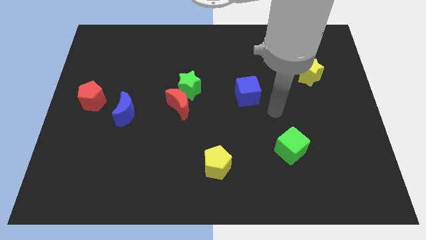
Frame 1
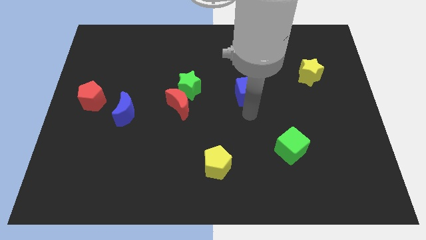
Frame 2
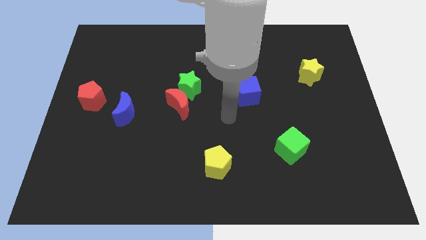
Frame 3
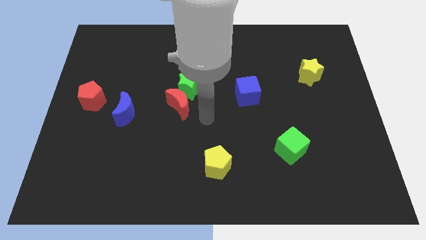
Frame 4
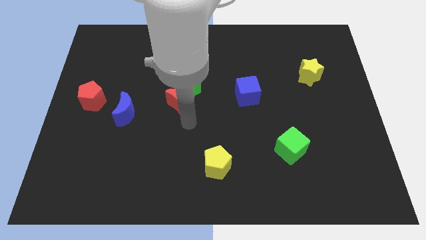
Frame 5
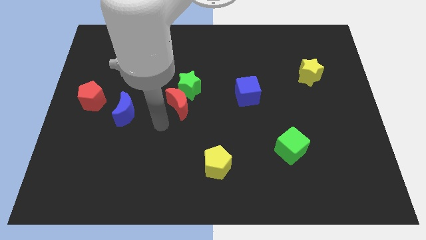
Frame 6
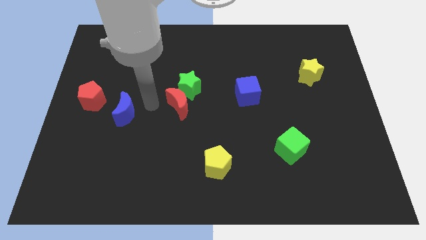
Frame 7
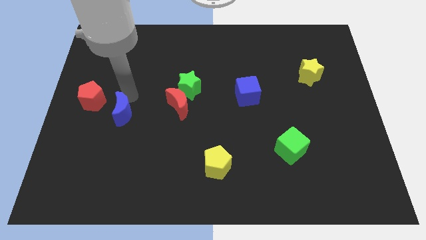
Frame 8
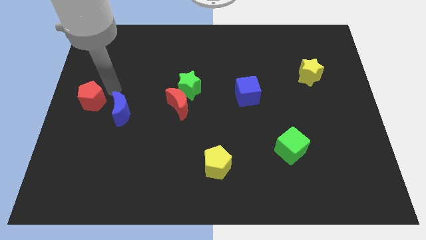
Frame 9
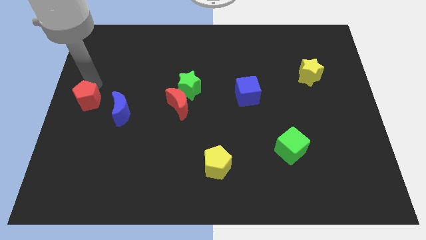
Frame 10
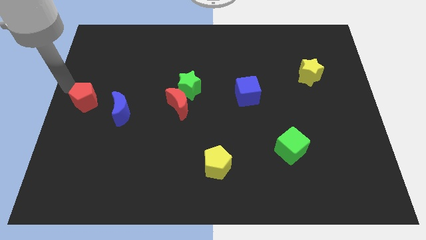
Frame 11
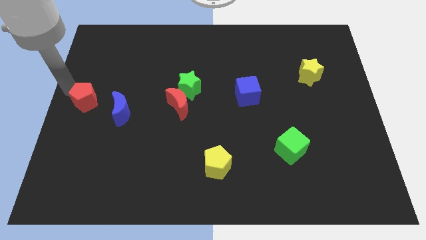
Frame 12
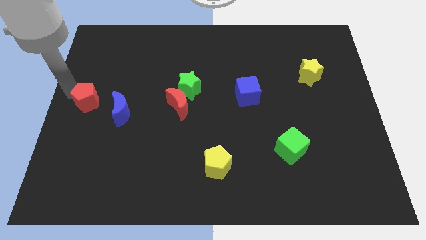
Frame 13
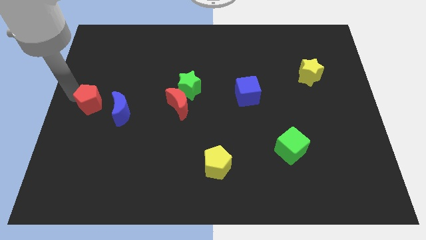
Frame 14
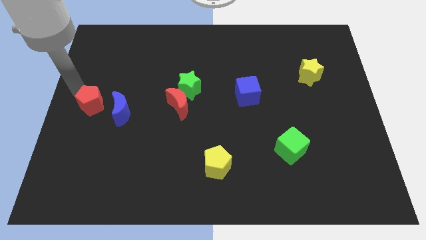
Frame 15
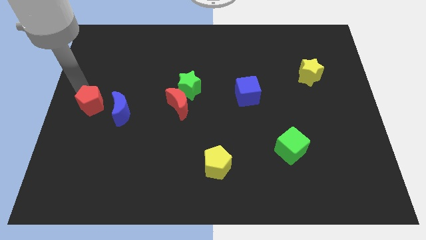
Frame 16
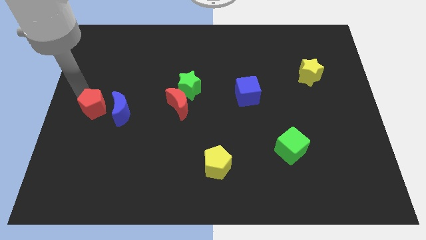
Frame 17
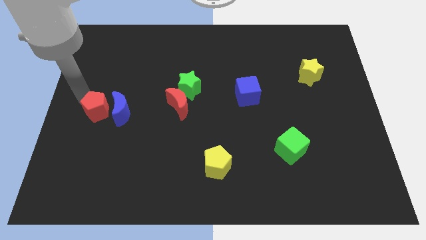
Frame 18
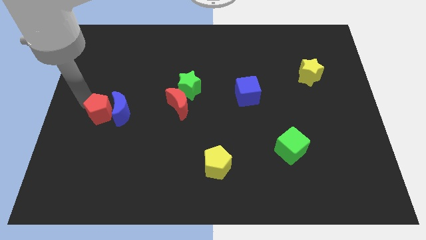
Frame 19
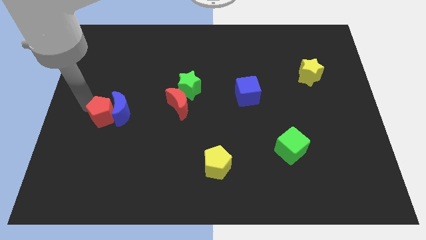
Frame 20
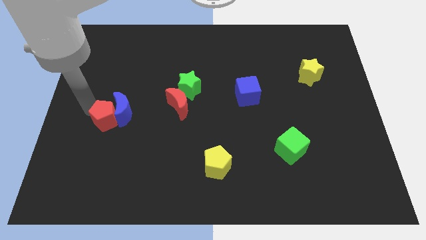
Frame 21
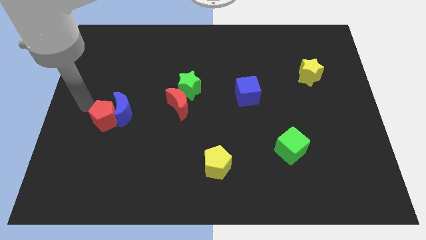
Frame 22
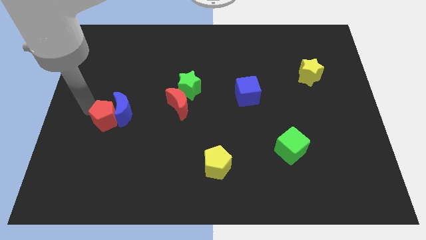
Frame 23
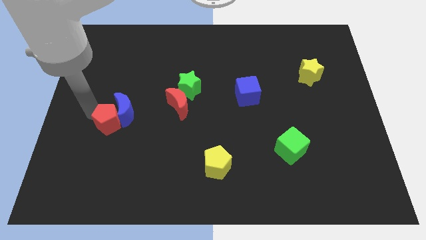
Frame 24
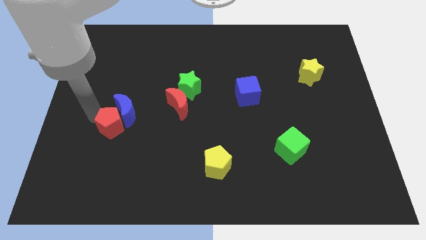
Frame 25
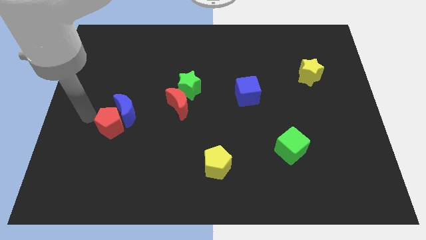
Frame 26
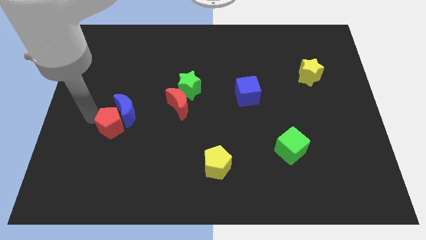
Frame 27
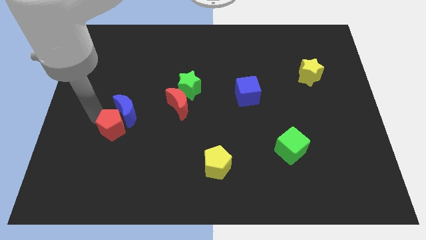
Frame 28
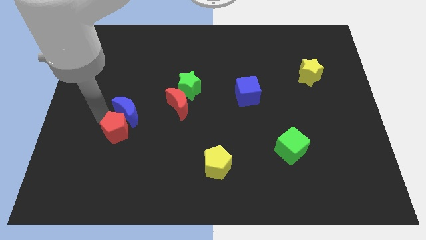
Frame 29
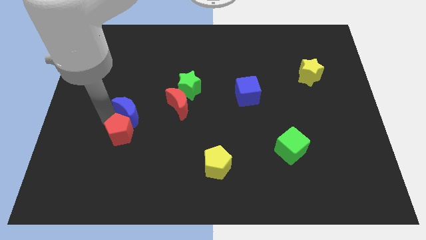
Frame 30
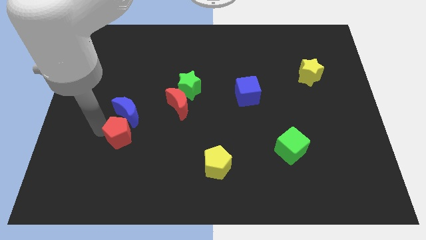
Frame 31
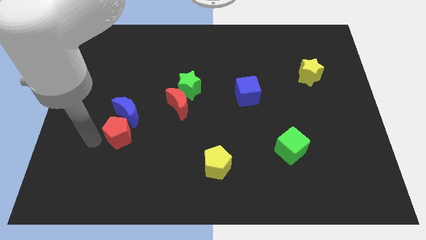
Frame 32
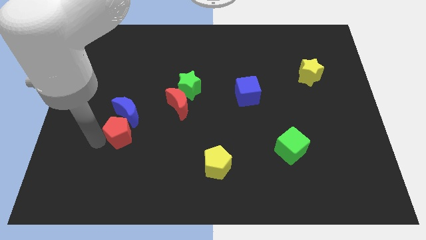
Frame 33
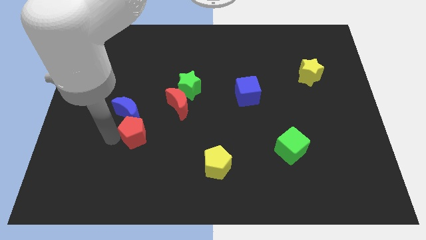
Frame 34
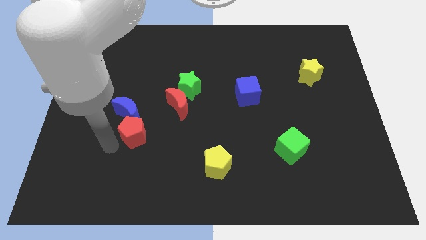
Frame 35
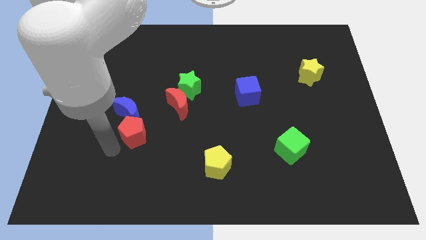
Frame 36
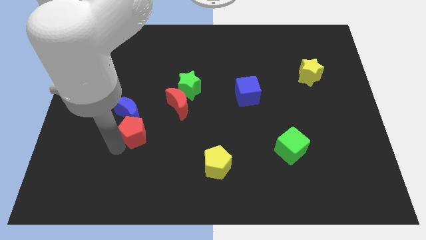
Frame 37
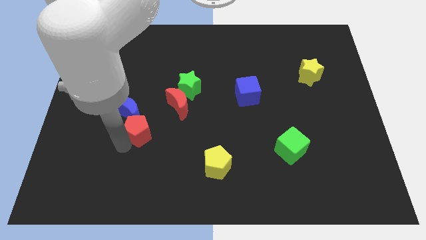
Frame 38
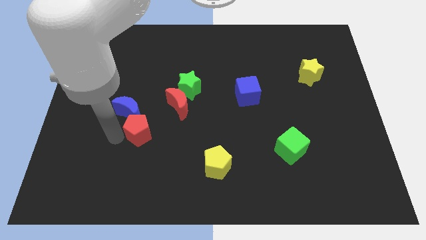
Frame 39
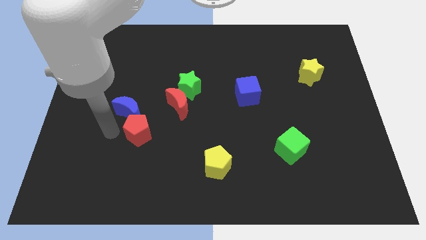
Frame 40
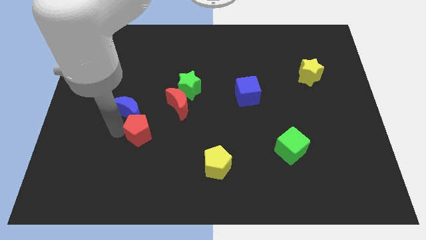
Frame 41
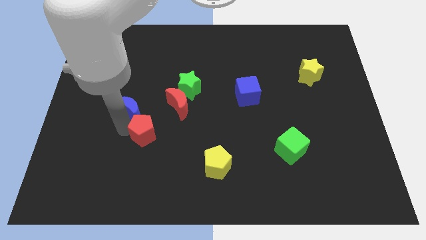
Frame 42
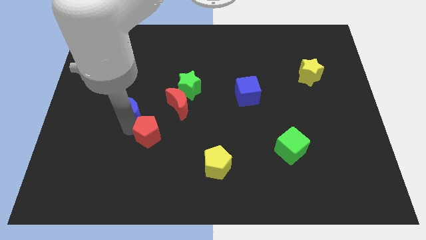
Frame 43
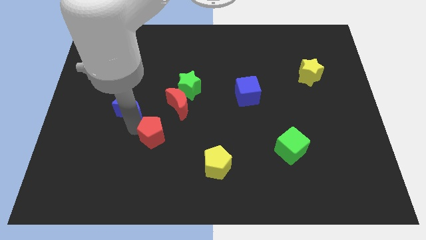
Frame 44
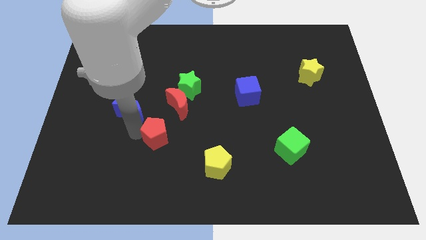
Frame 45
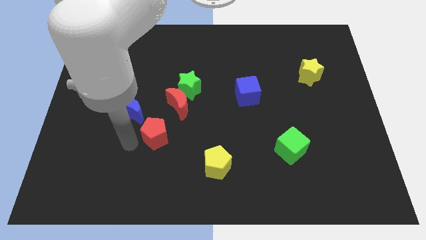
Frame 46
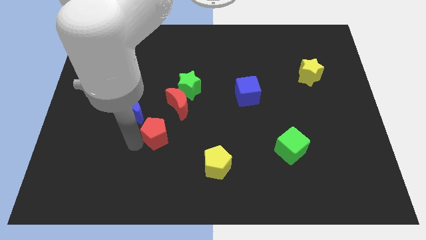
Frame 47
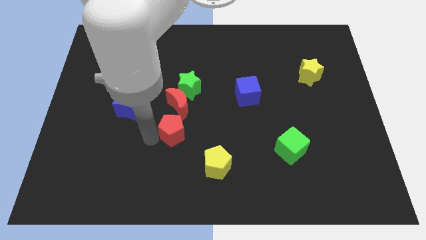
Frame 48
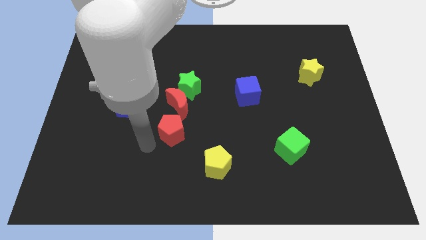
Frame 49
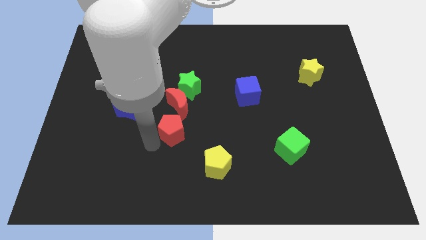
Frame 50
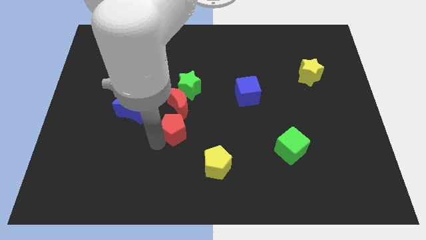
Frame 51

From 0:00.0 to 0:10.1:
slide the red pentagon to the middle

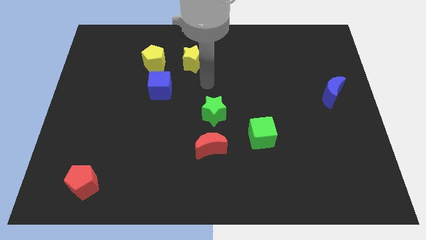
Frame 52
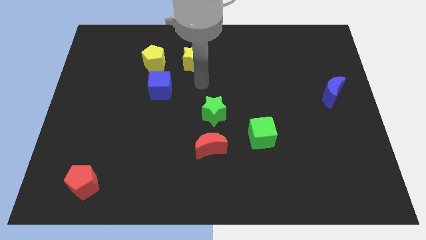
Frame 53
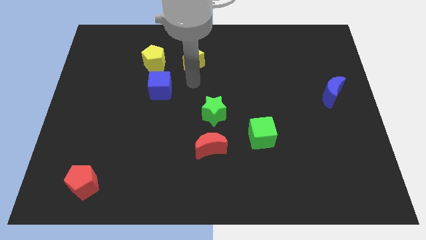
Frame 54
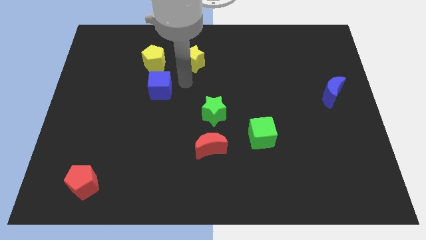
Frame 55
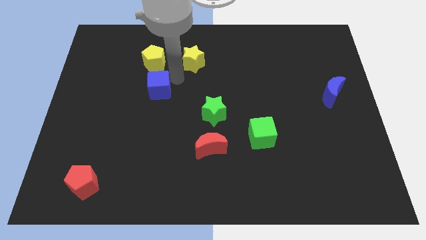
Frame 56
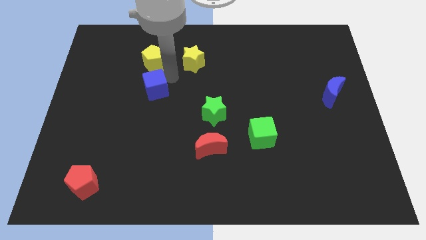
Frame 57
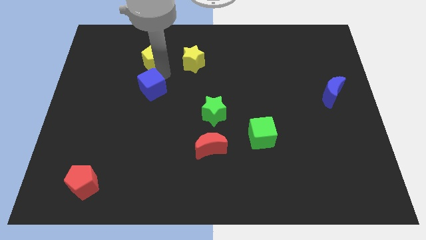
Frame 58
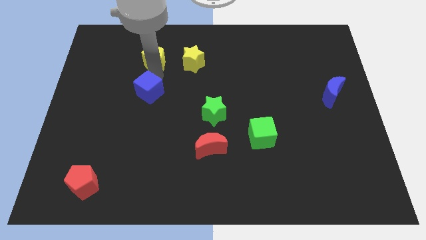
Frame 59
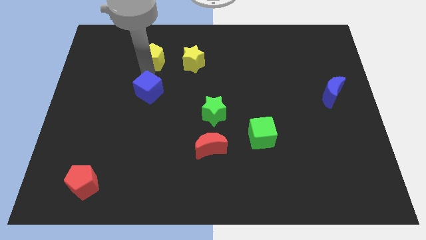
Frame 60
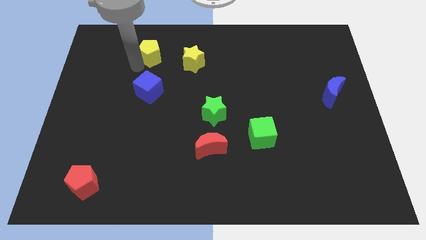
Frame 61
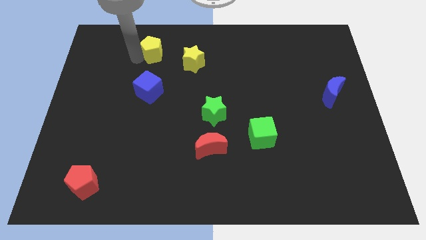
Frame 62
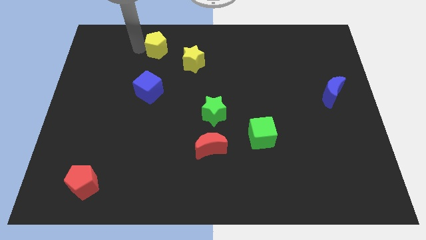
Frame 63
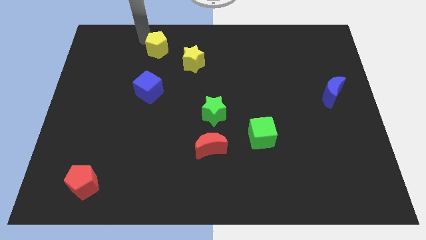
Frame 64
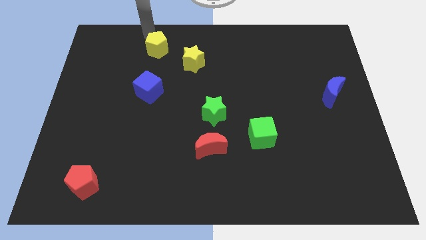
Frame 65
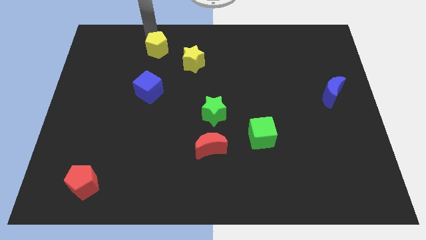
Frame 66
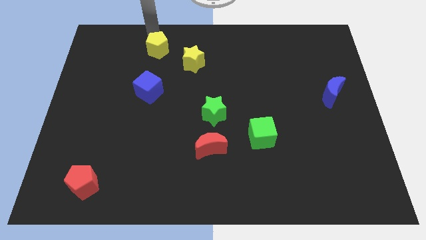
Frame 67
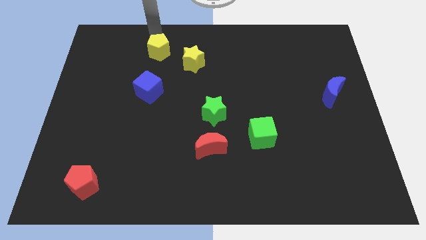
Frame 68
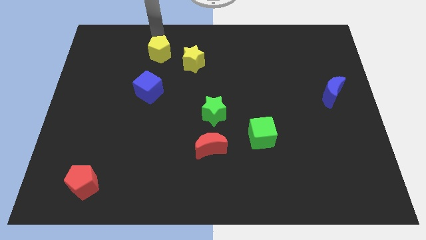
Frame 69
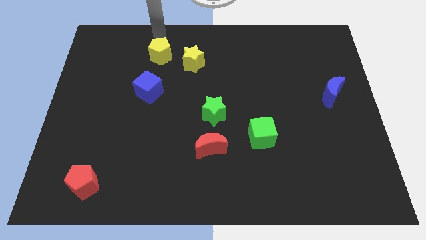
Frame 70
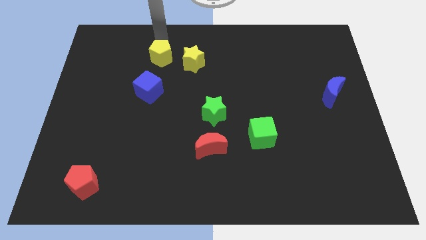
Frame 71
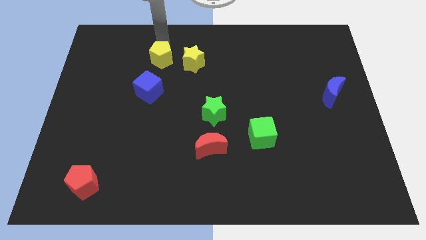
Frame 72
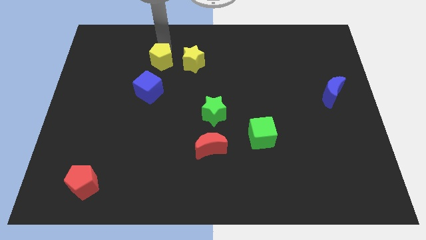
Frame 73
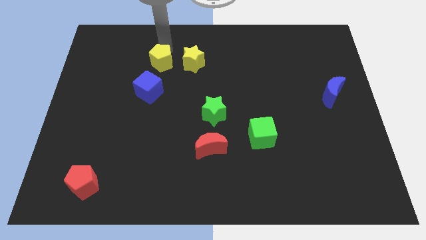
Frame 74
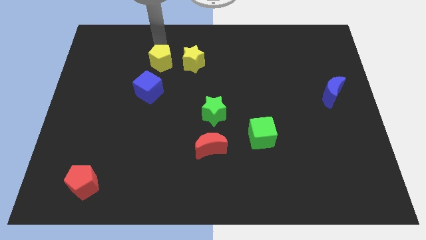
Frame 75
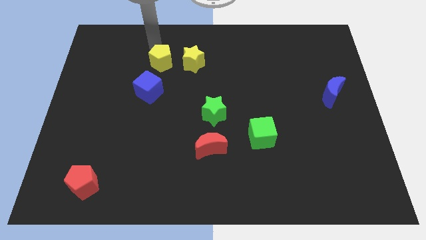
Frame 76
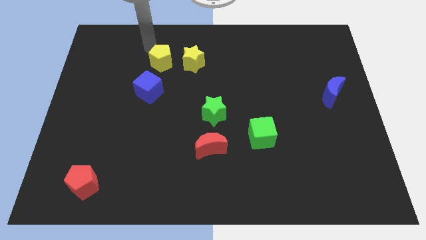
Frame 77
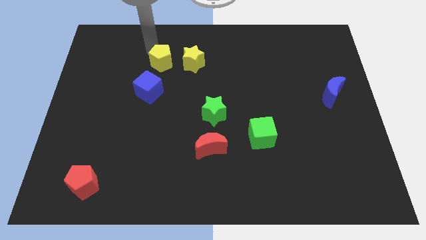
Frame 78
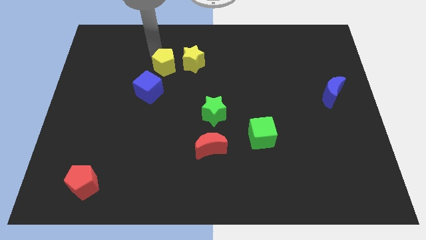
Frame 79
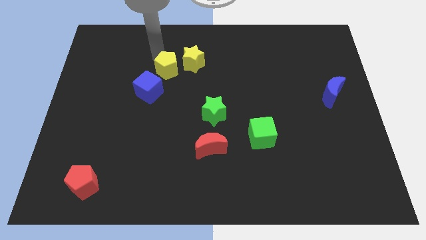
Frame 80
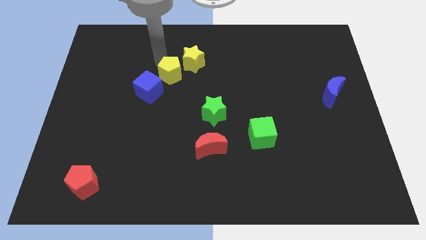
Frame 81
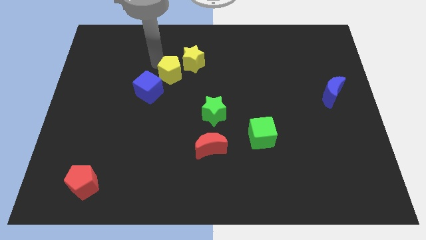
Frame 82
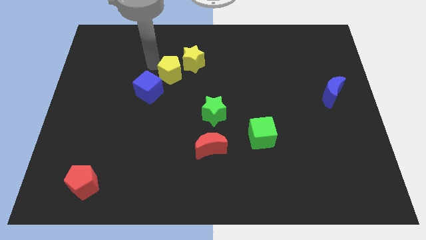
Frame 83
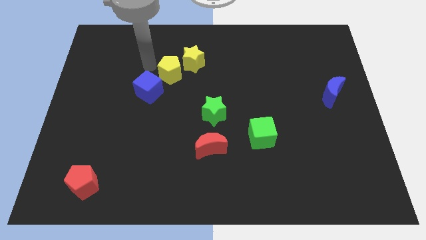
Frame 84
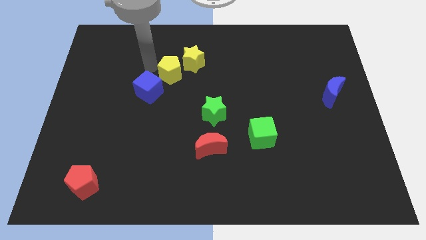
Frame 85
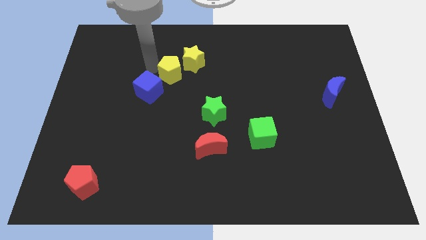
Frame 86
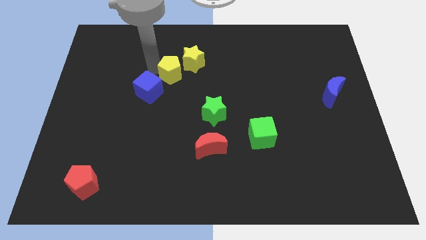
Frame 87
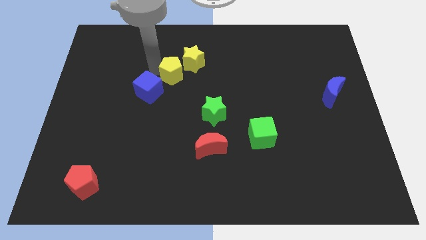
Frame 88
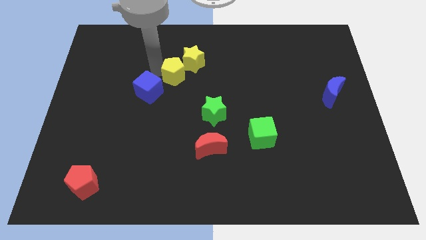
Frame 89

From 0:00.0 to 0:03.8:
put the yellow pentagon to the middle
